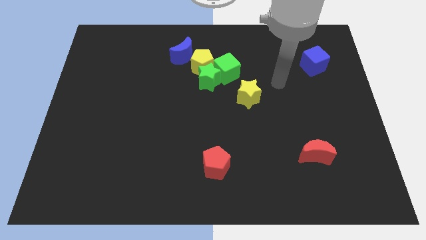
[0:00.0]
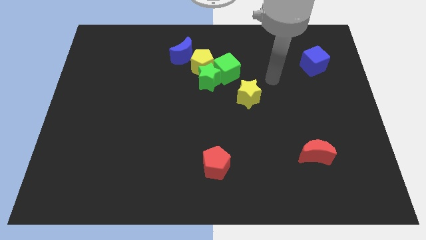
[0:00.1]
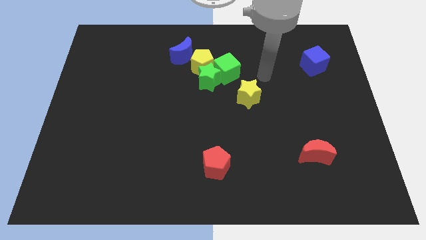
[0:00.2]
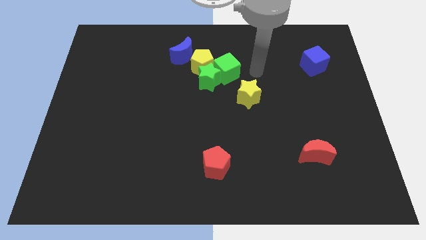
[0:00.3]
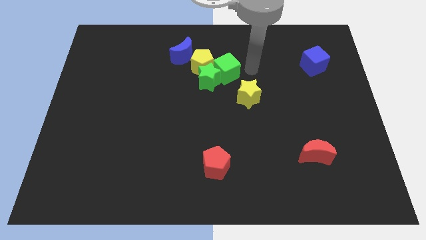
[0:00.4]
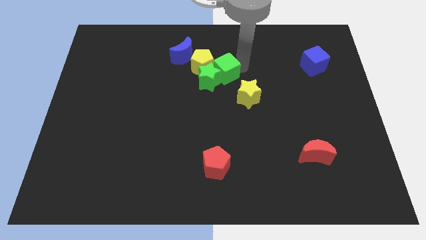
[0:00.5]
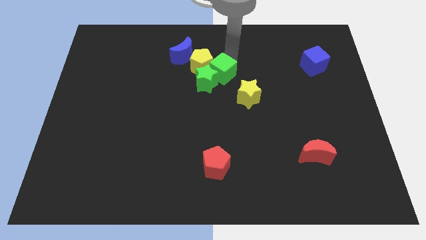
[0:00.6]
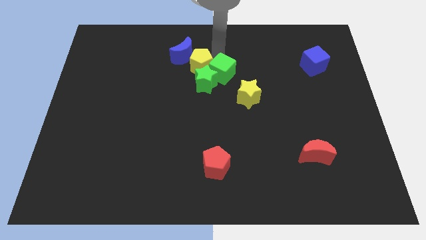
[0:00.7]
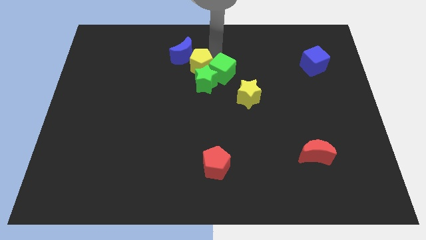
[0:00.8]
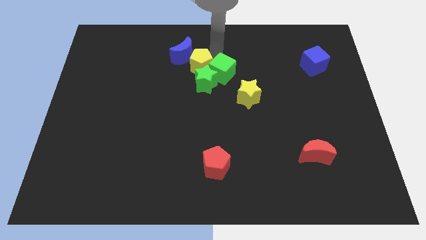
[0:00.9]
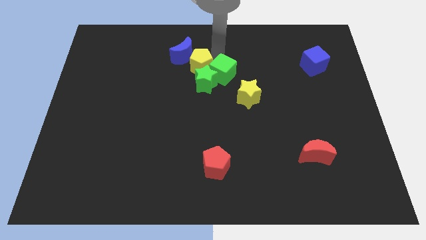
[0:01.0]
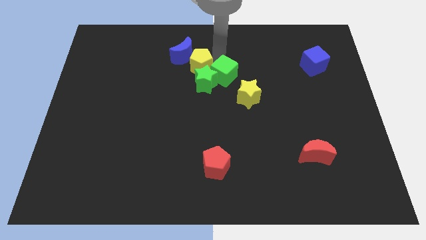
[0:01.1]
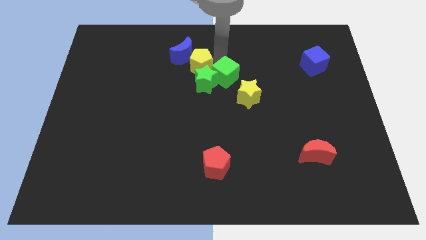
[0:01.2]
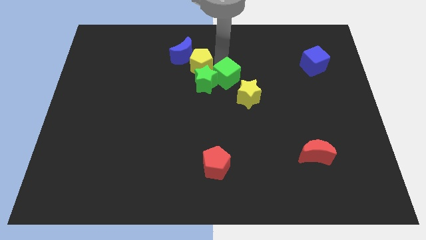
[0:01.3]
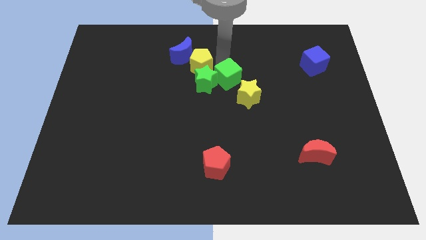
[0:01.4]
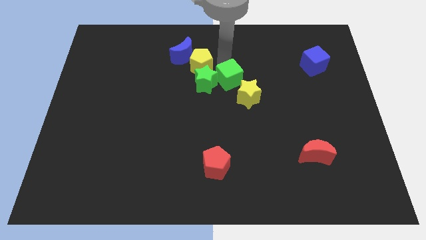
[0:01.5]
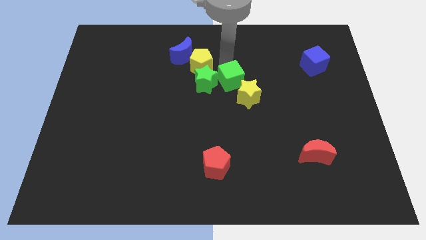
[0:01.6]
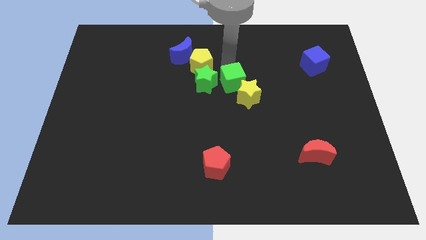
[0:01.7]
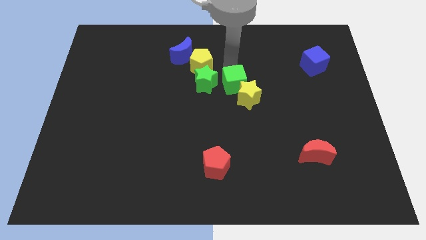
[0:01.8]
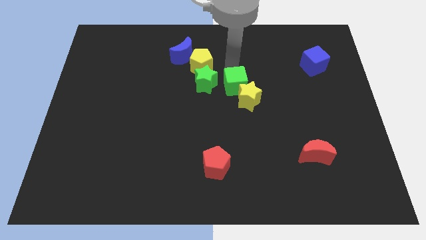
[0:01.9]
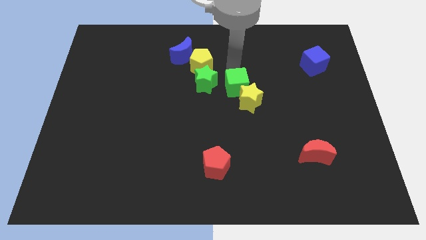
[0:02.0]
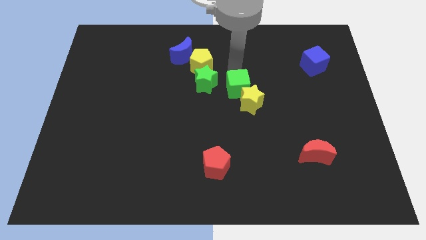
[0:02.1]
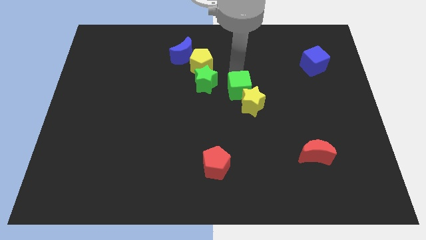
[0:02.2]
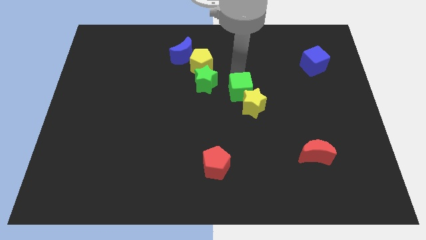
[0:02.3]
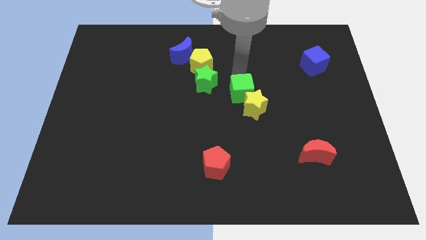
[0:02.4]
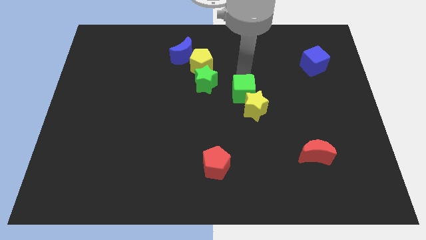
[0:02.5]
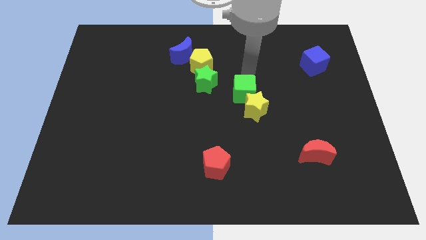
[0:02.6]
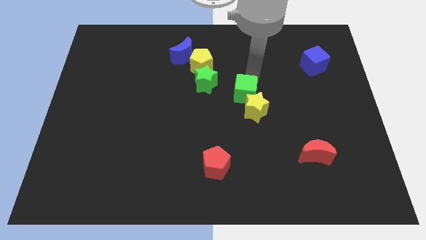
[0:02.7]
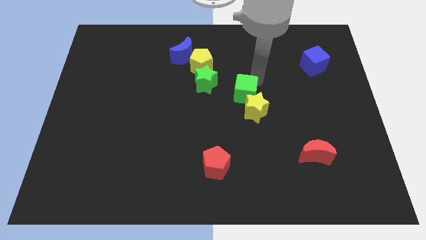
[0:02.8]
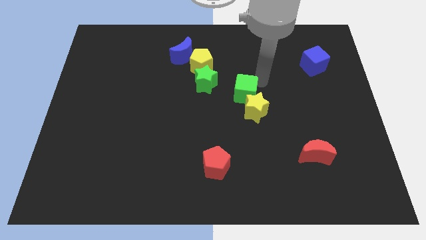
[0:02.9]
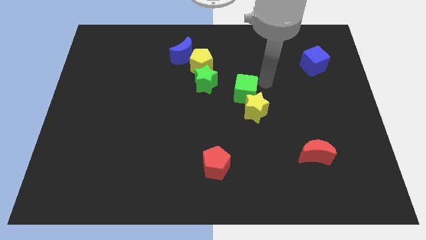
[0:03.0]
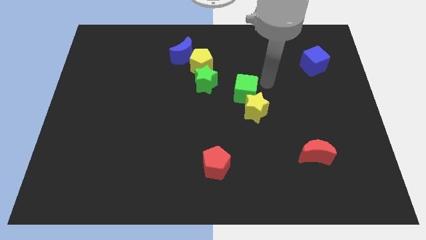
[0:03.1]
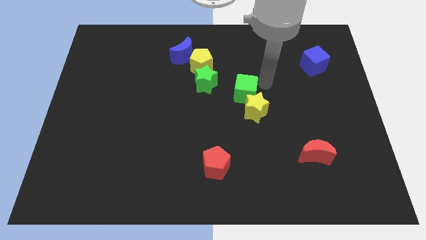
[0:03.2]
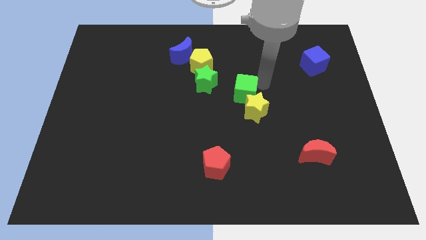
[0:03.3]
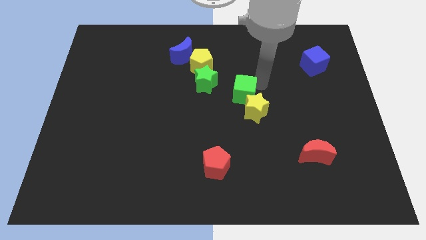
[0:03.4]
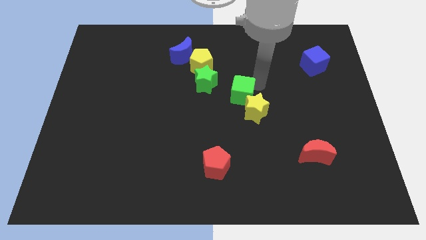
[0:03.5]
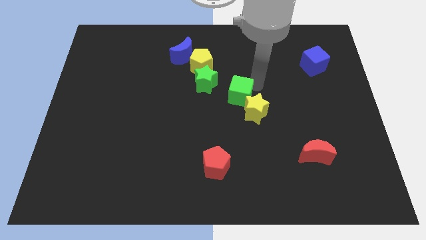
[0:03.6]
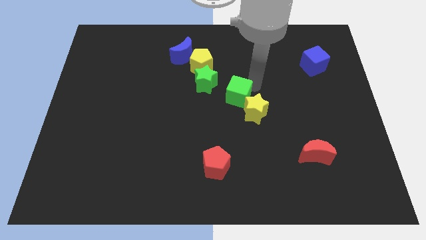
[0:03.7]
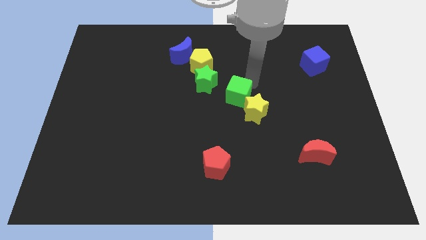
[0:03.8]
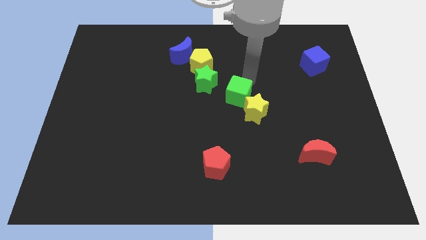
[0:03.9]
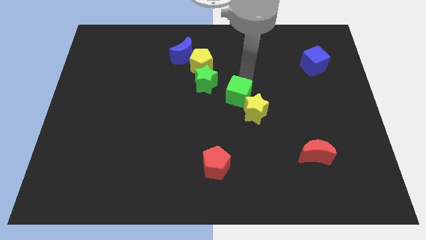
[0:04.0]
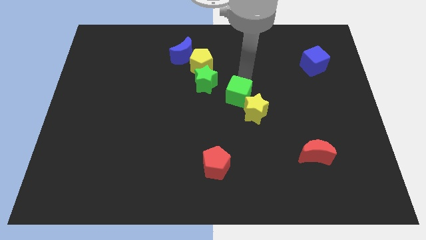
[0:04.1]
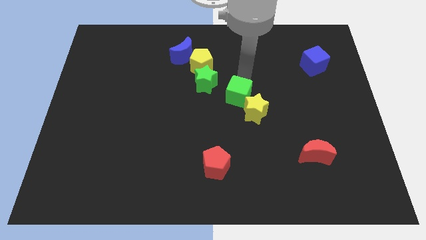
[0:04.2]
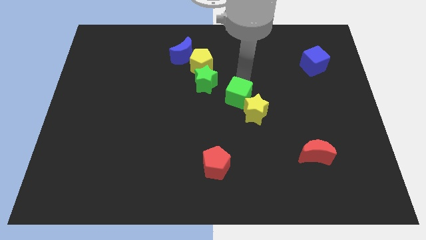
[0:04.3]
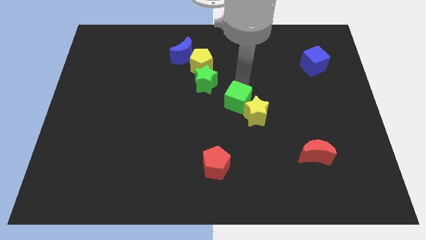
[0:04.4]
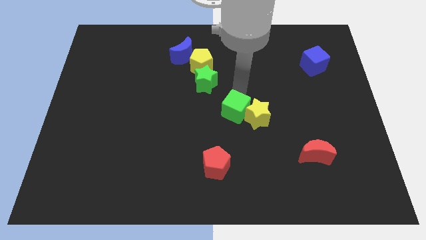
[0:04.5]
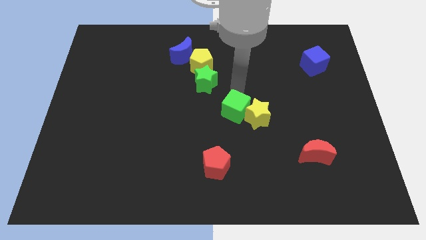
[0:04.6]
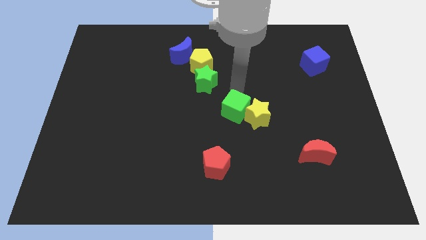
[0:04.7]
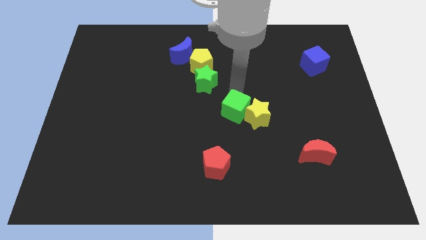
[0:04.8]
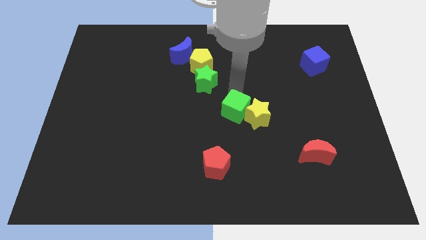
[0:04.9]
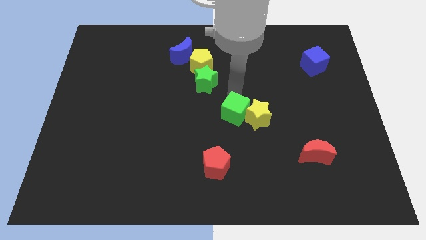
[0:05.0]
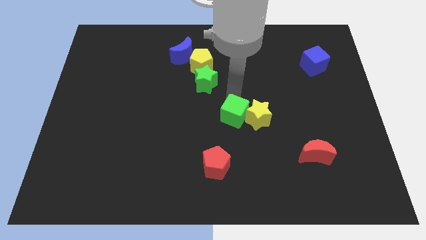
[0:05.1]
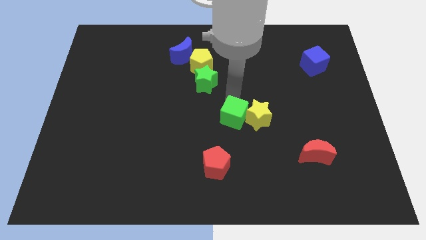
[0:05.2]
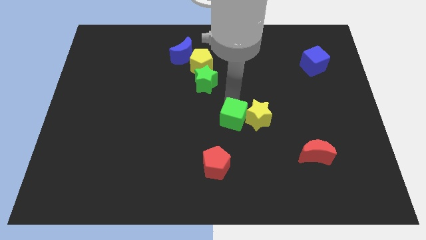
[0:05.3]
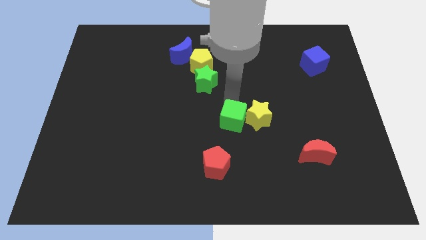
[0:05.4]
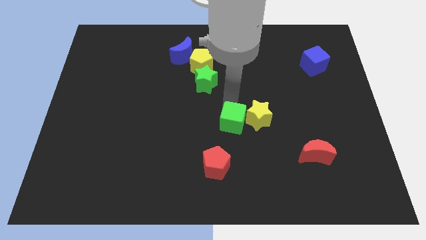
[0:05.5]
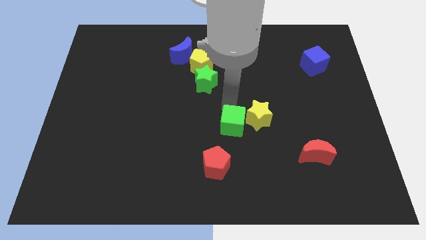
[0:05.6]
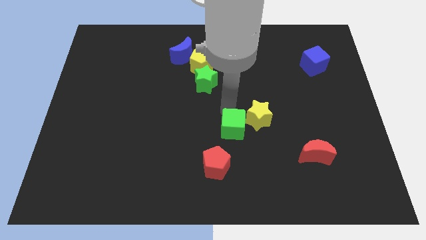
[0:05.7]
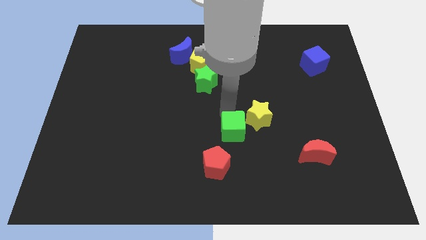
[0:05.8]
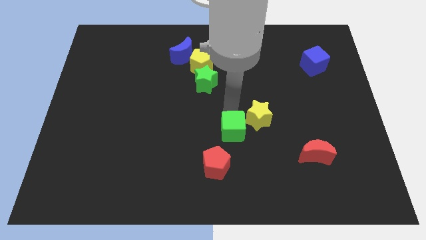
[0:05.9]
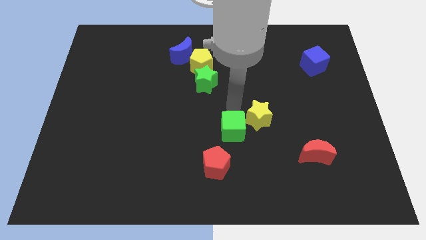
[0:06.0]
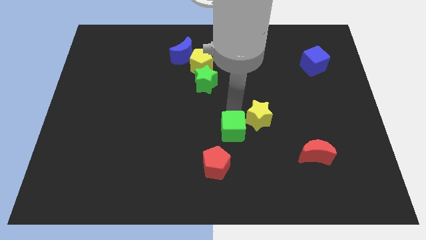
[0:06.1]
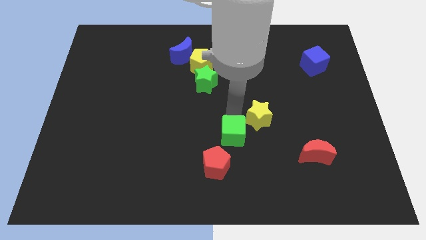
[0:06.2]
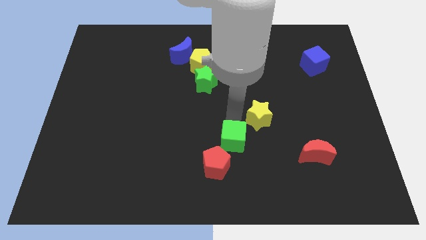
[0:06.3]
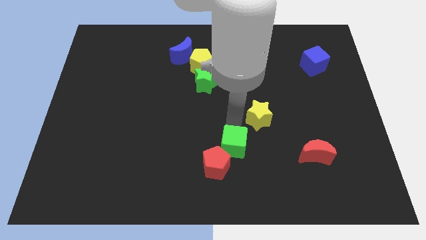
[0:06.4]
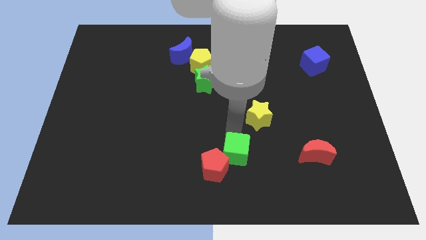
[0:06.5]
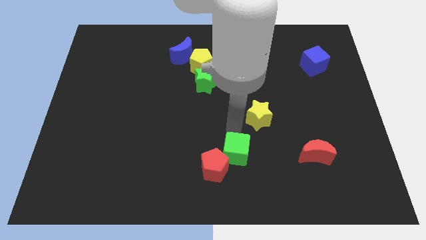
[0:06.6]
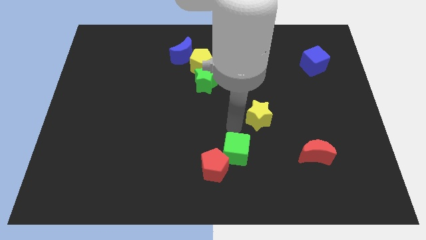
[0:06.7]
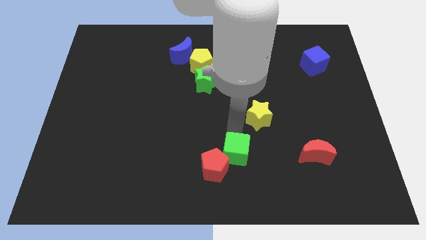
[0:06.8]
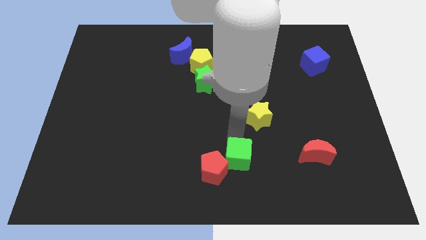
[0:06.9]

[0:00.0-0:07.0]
put the green cube to the bottom
